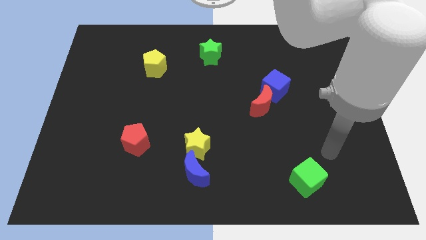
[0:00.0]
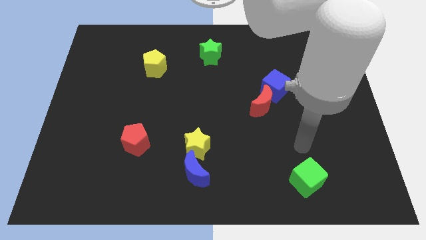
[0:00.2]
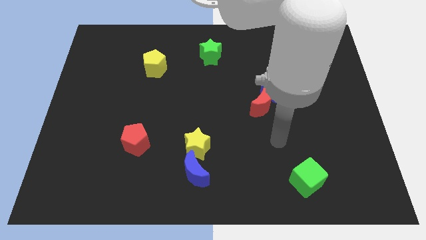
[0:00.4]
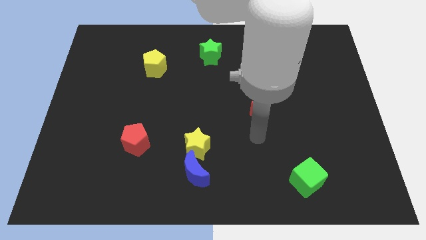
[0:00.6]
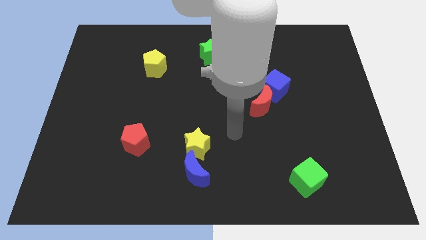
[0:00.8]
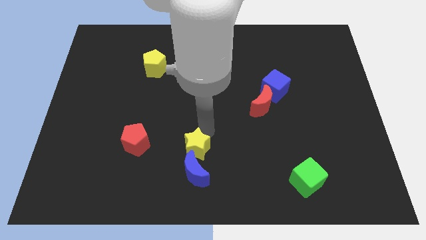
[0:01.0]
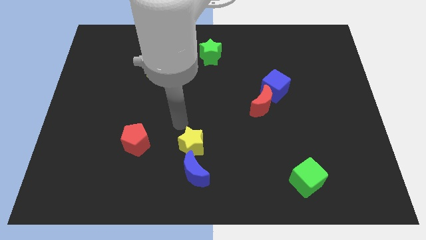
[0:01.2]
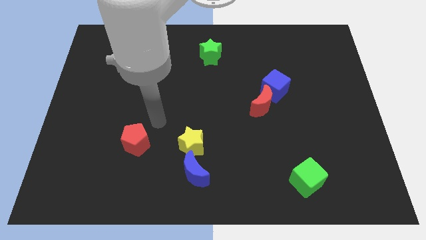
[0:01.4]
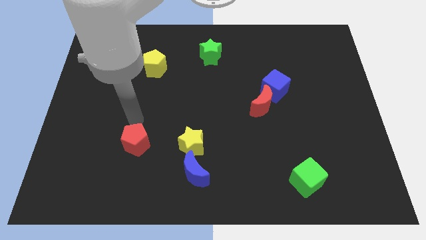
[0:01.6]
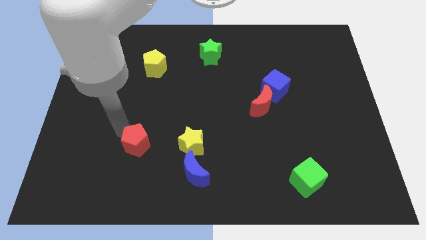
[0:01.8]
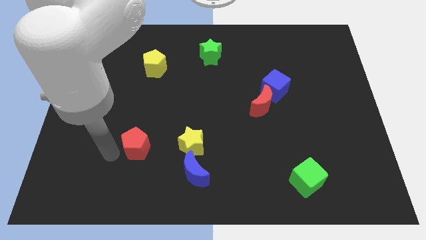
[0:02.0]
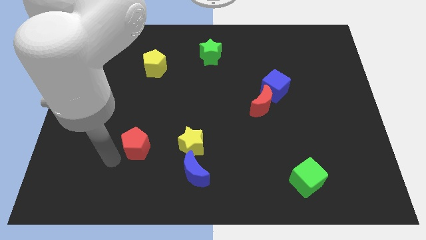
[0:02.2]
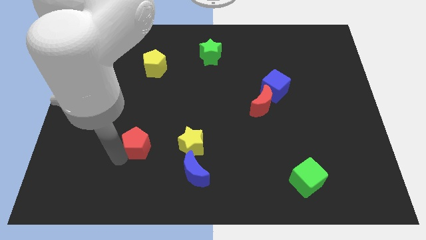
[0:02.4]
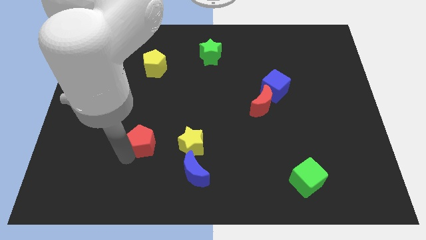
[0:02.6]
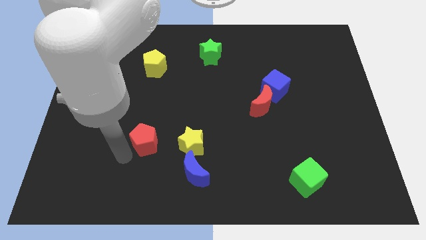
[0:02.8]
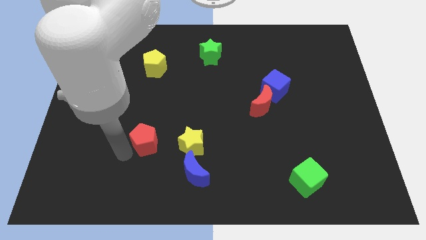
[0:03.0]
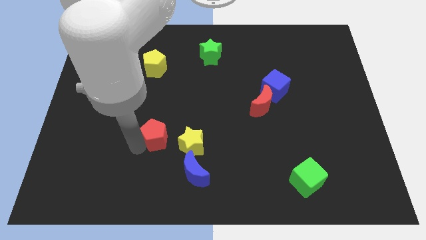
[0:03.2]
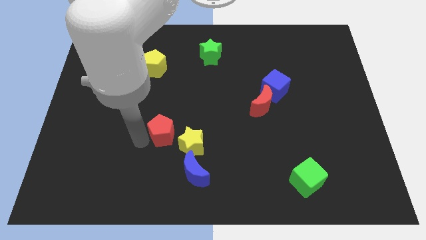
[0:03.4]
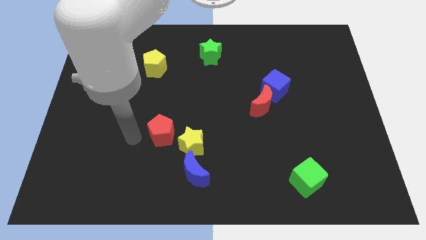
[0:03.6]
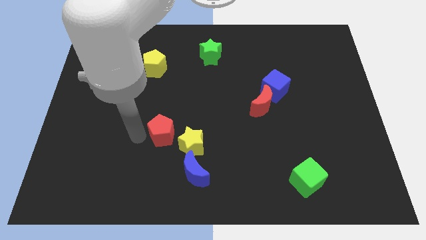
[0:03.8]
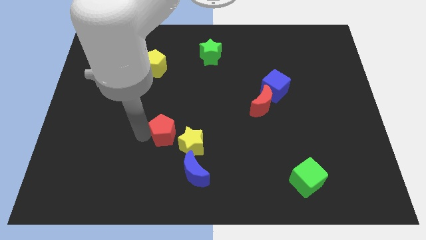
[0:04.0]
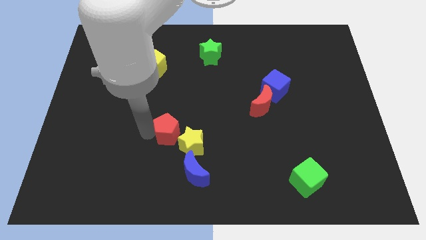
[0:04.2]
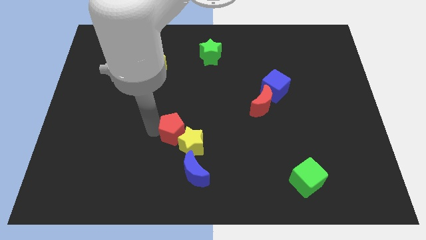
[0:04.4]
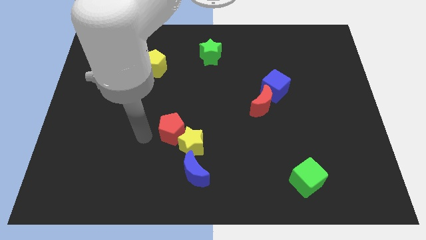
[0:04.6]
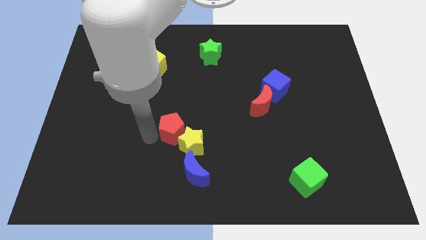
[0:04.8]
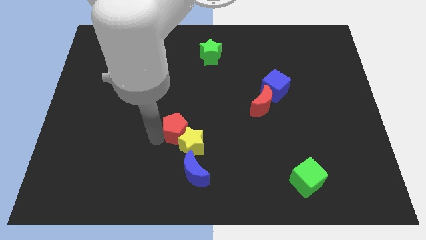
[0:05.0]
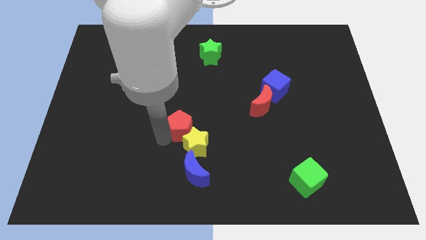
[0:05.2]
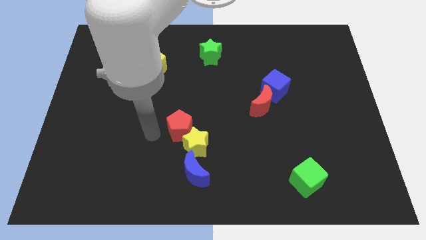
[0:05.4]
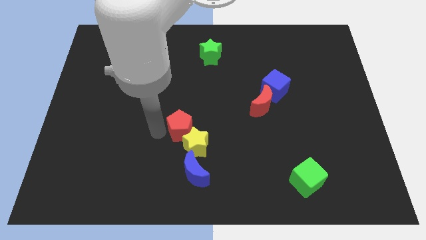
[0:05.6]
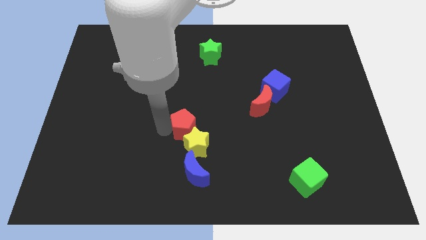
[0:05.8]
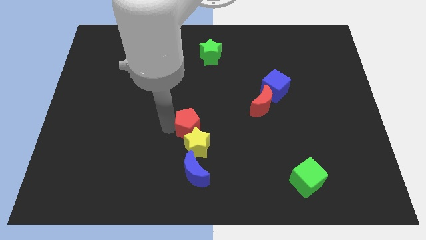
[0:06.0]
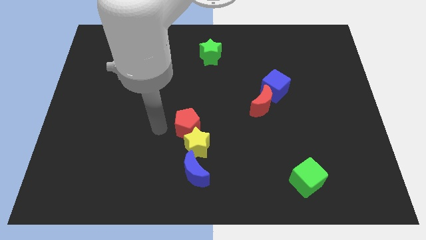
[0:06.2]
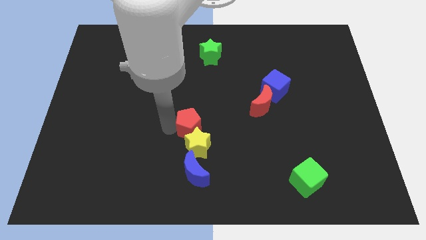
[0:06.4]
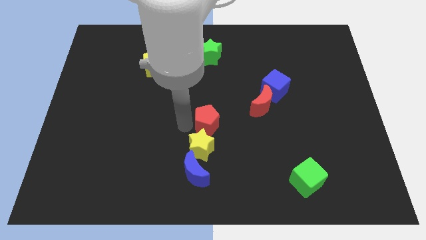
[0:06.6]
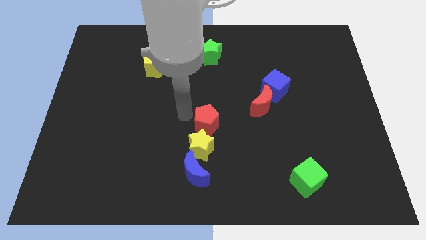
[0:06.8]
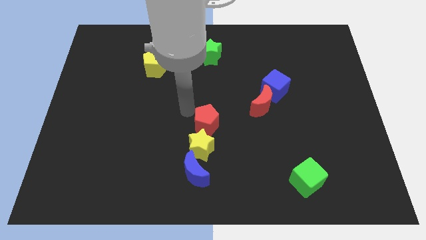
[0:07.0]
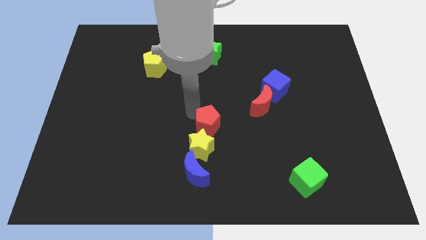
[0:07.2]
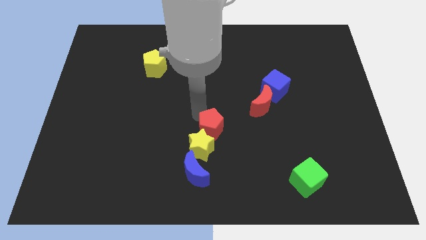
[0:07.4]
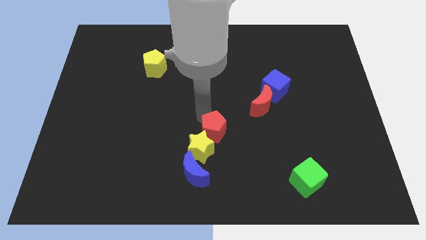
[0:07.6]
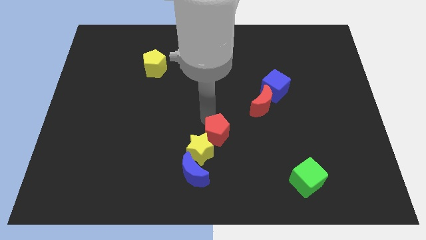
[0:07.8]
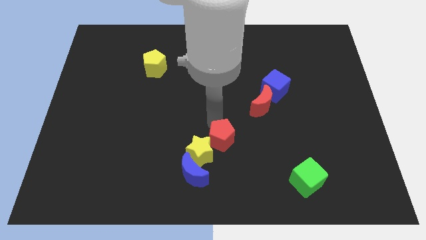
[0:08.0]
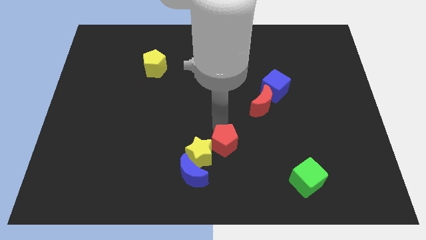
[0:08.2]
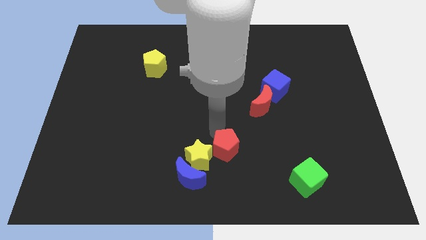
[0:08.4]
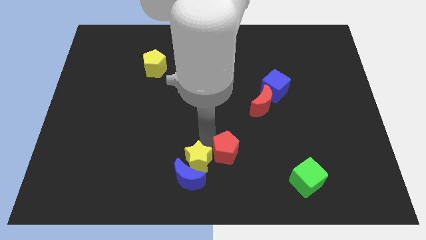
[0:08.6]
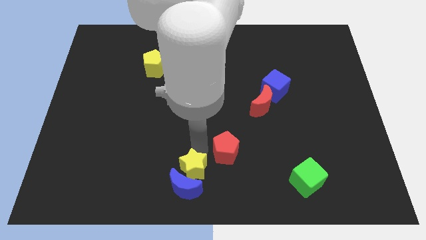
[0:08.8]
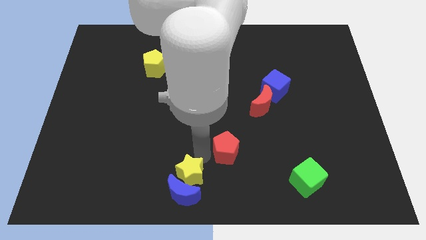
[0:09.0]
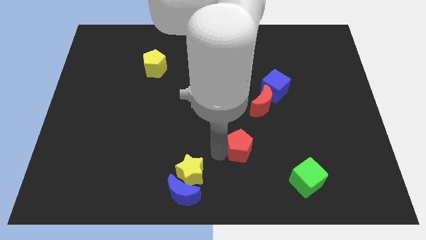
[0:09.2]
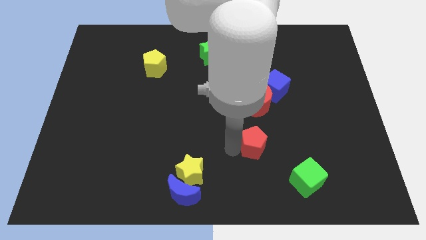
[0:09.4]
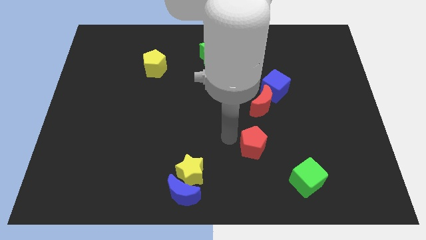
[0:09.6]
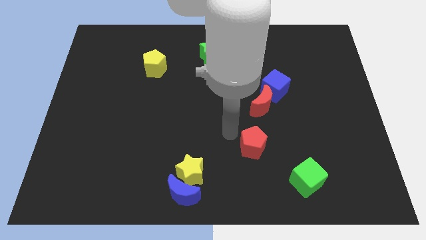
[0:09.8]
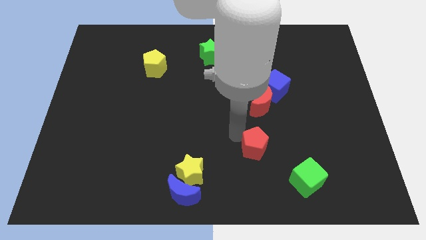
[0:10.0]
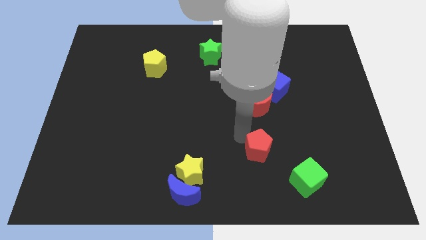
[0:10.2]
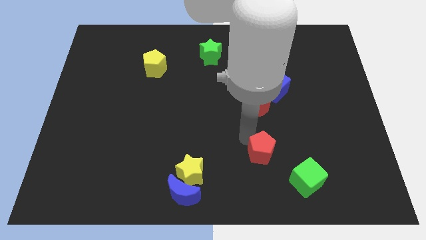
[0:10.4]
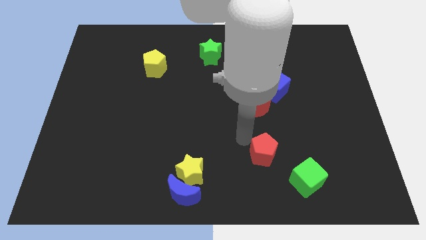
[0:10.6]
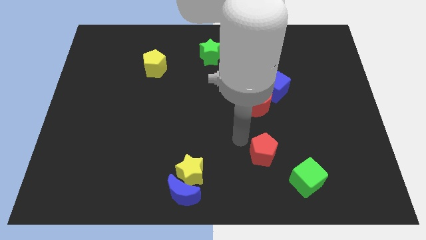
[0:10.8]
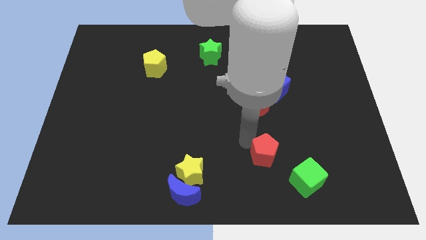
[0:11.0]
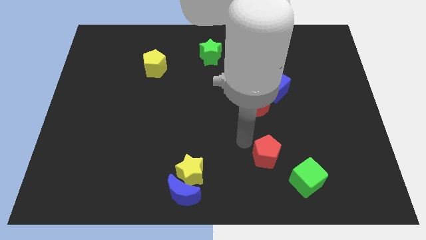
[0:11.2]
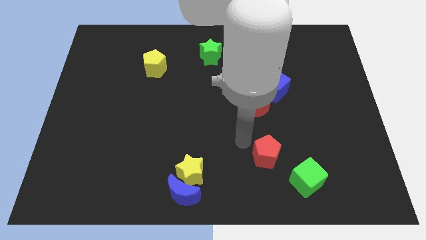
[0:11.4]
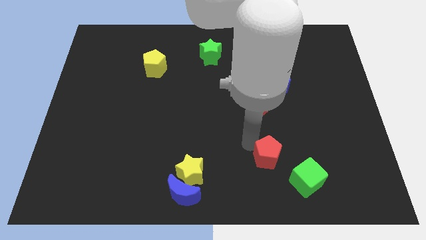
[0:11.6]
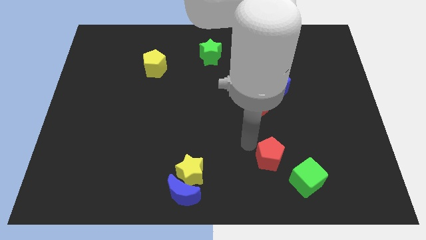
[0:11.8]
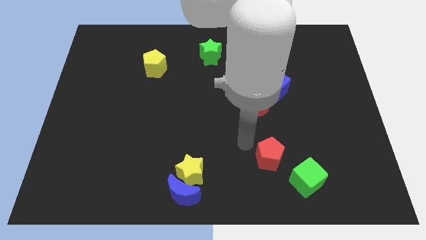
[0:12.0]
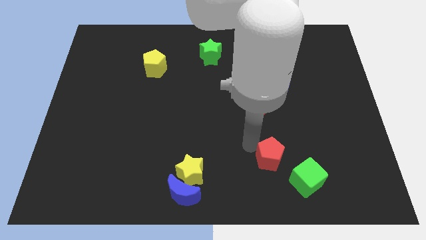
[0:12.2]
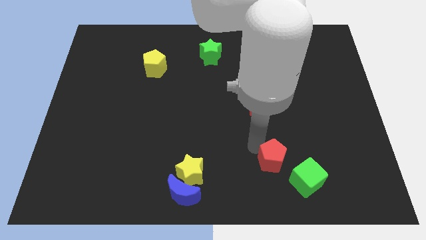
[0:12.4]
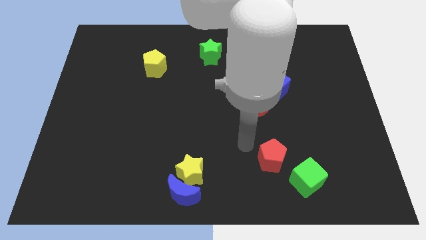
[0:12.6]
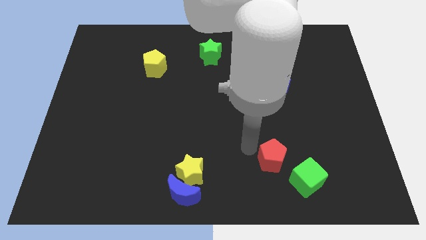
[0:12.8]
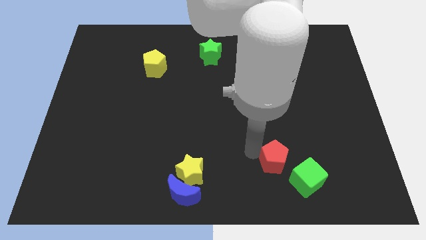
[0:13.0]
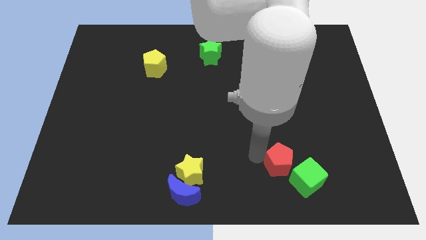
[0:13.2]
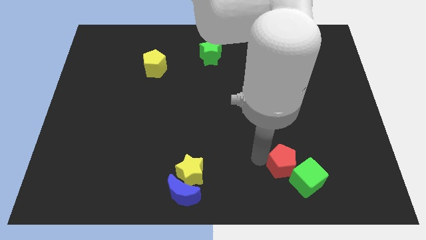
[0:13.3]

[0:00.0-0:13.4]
put the red pentagon close to the green cube
